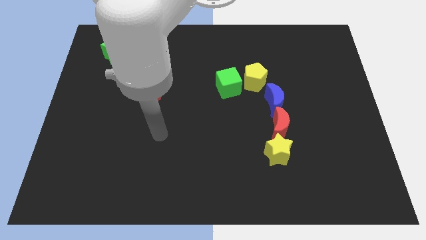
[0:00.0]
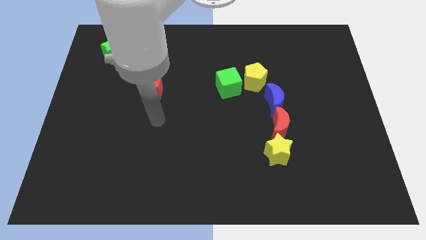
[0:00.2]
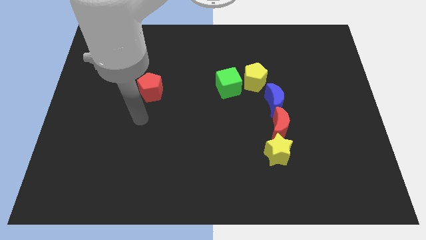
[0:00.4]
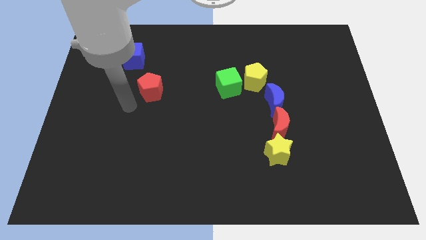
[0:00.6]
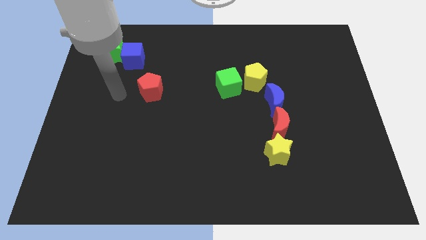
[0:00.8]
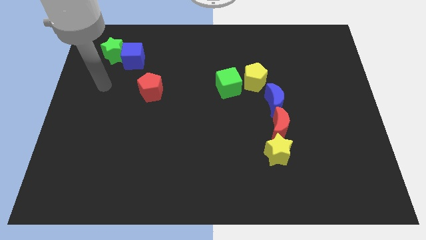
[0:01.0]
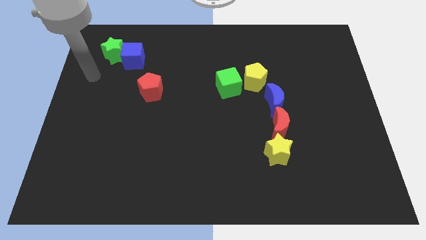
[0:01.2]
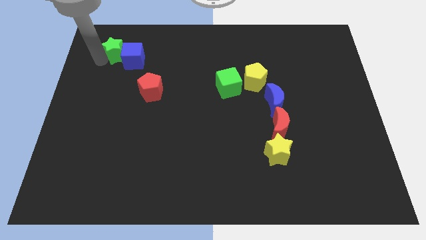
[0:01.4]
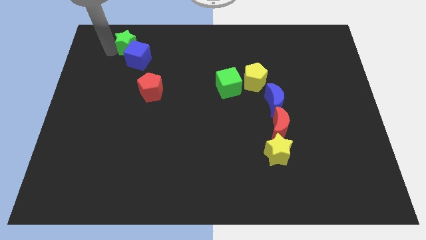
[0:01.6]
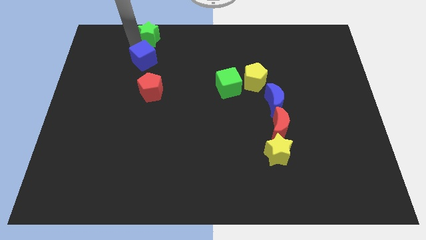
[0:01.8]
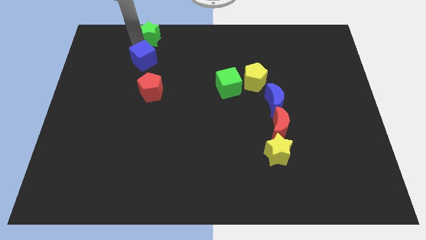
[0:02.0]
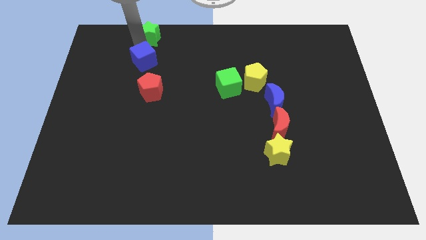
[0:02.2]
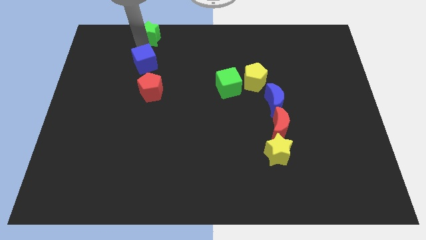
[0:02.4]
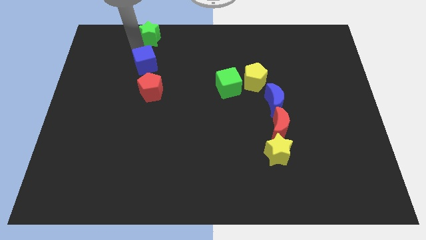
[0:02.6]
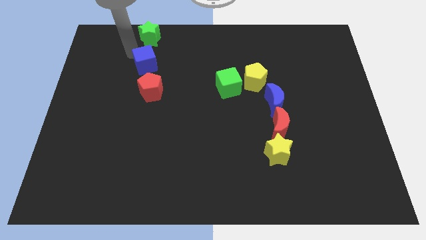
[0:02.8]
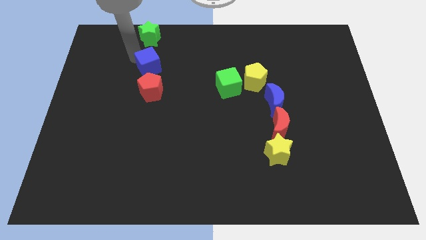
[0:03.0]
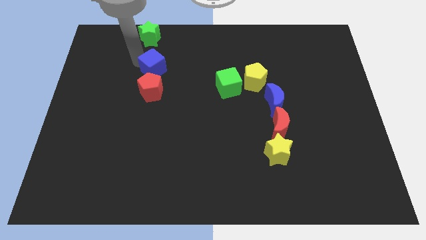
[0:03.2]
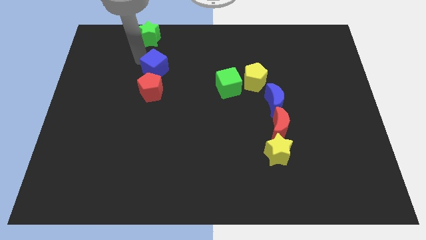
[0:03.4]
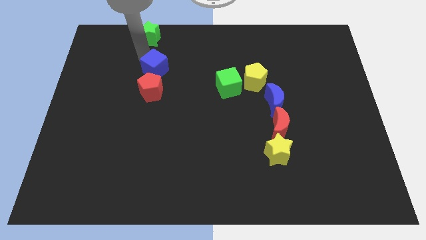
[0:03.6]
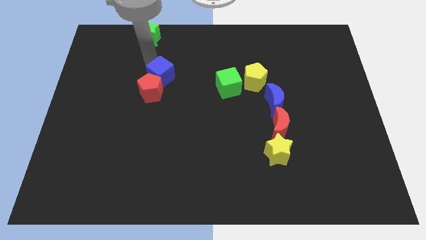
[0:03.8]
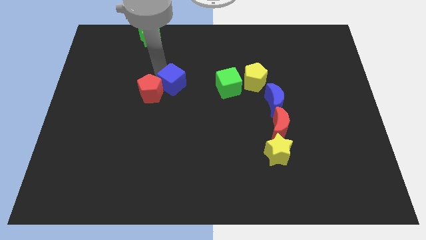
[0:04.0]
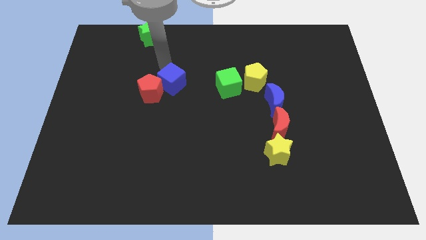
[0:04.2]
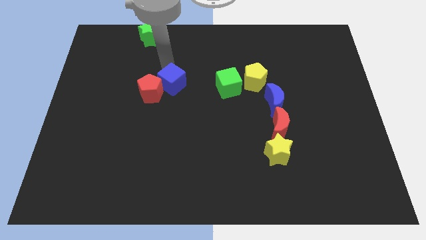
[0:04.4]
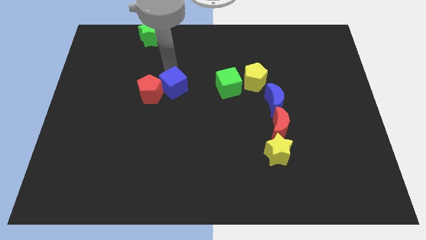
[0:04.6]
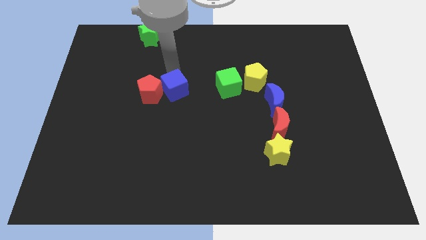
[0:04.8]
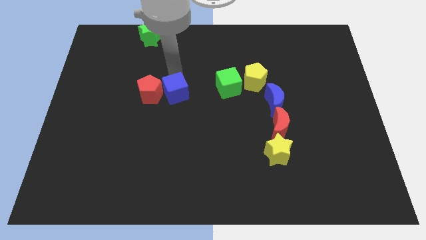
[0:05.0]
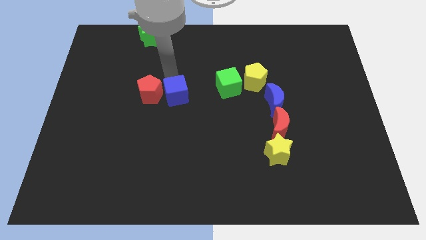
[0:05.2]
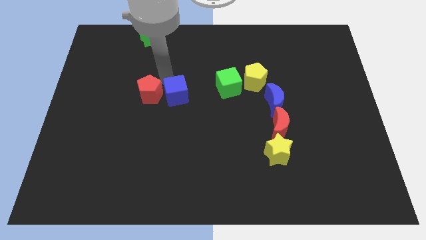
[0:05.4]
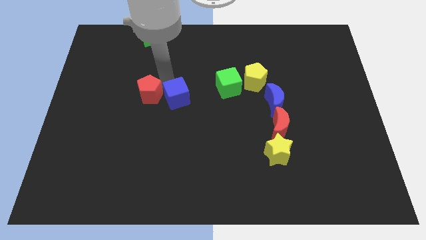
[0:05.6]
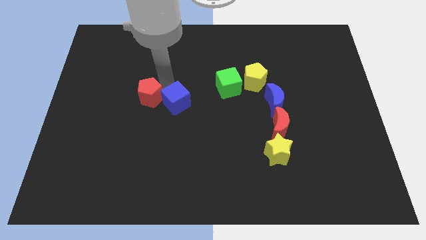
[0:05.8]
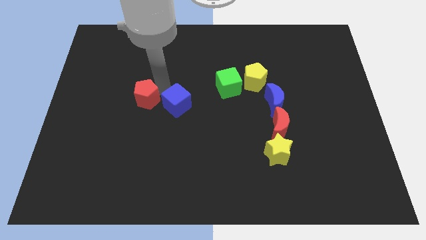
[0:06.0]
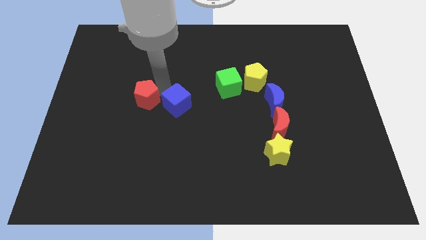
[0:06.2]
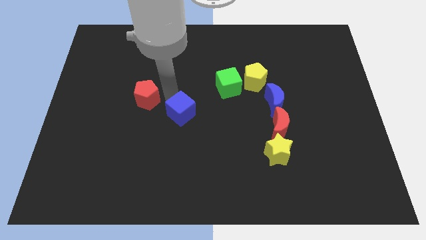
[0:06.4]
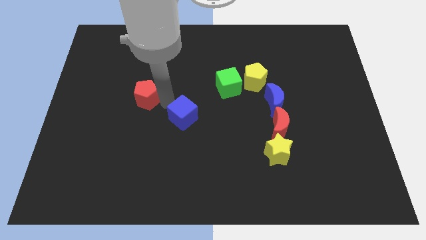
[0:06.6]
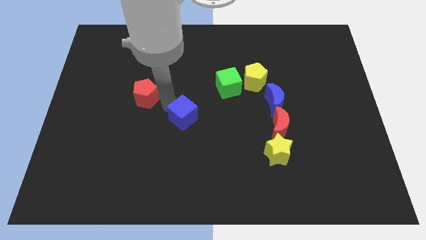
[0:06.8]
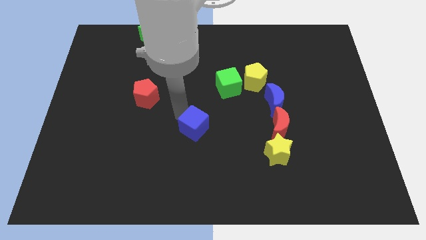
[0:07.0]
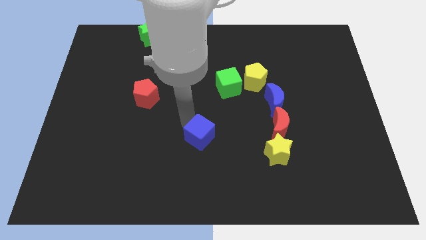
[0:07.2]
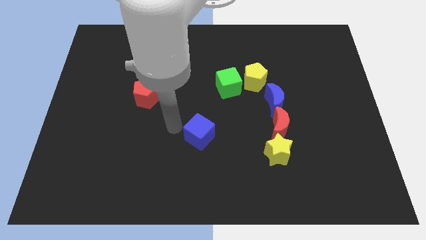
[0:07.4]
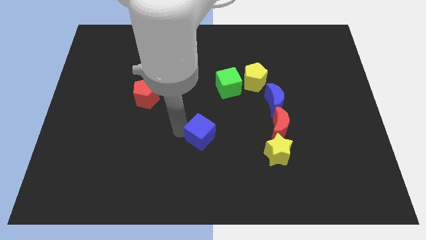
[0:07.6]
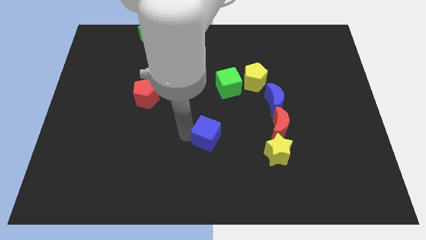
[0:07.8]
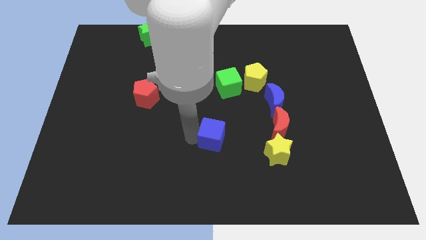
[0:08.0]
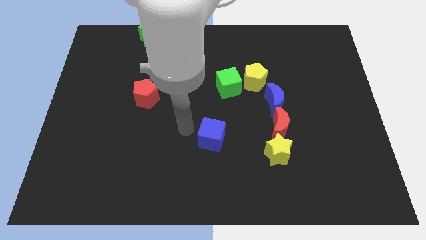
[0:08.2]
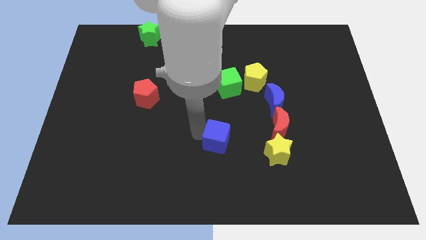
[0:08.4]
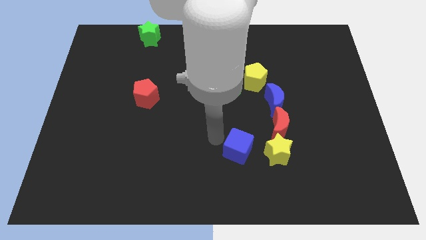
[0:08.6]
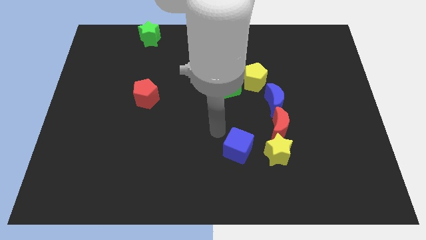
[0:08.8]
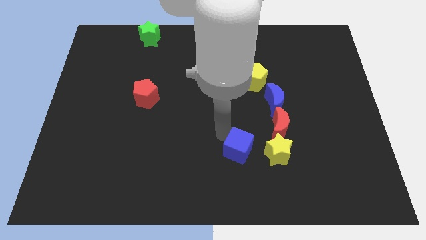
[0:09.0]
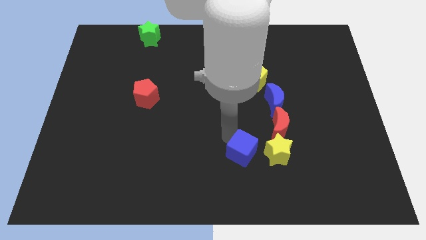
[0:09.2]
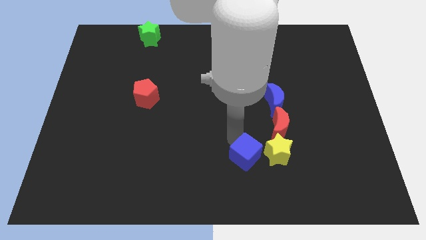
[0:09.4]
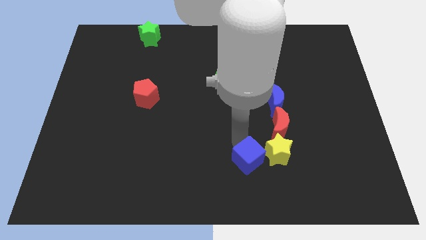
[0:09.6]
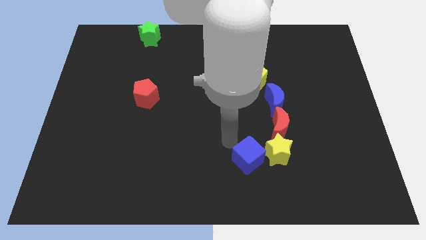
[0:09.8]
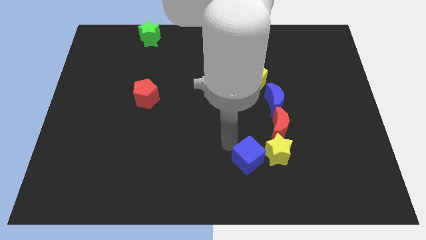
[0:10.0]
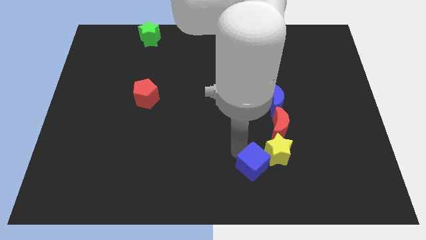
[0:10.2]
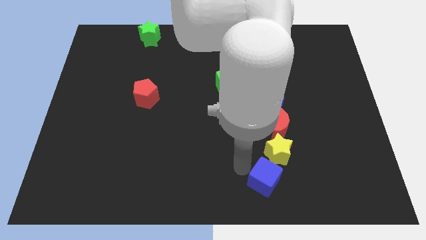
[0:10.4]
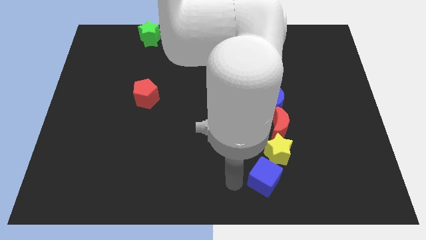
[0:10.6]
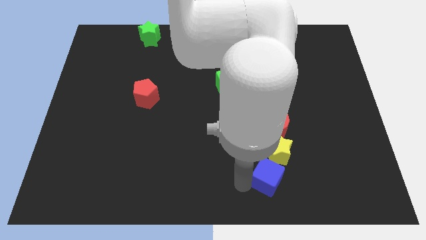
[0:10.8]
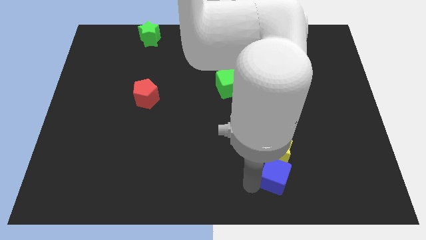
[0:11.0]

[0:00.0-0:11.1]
push the blue cube to the bottom right side of the yellow star

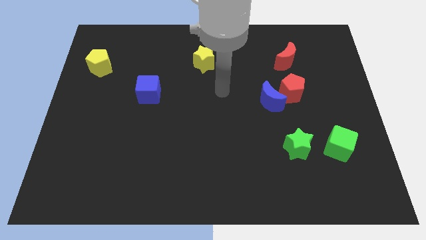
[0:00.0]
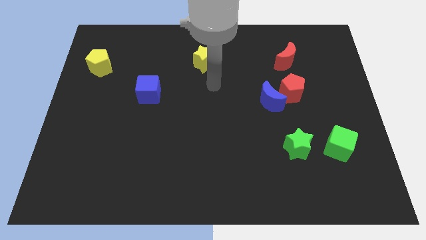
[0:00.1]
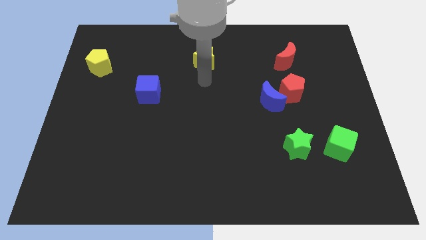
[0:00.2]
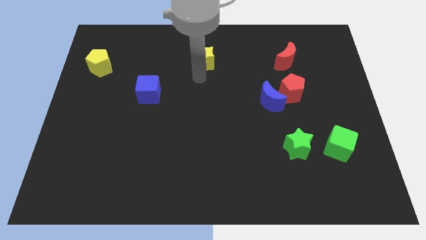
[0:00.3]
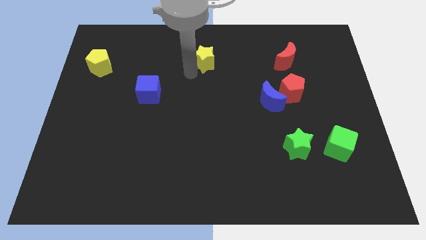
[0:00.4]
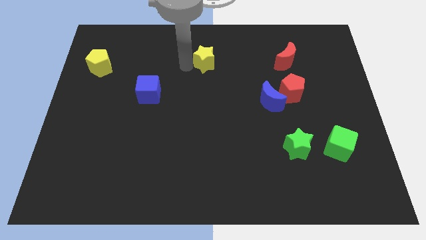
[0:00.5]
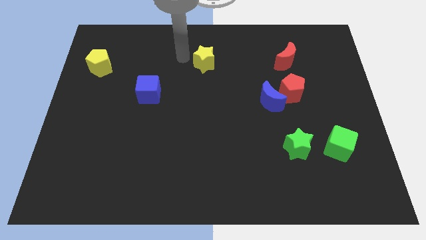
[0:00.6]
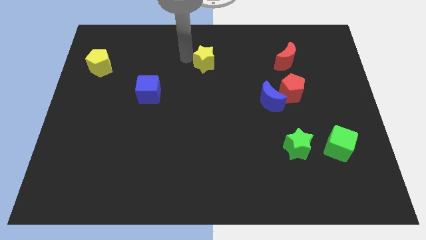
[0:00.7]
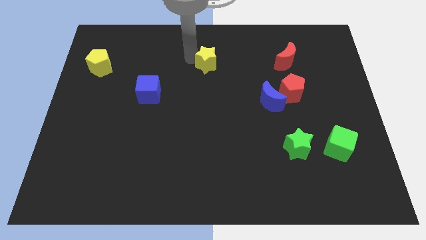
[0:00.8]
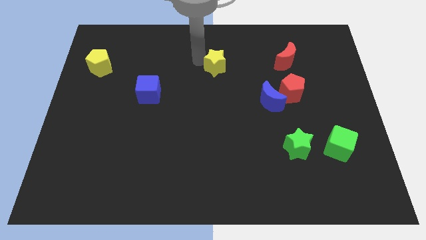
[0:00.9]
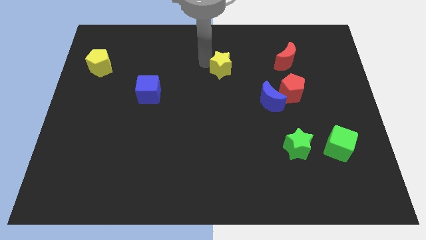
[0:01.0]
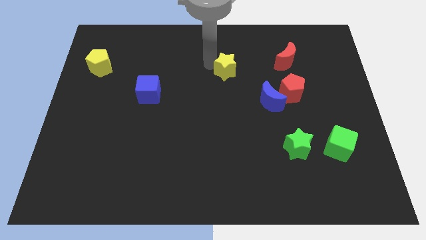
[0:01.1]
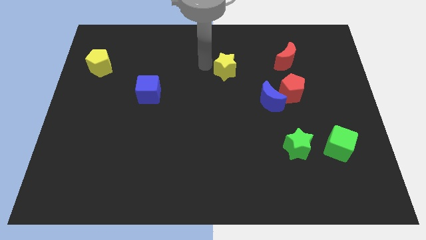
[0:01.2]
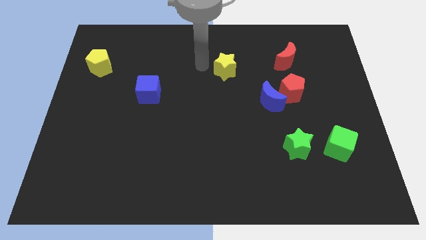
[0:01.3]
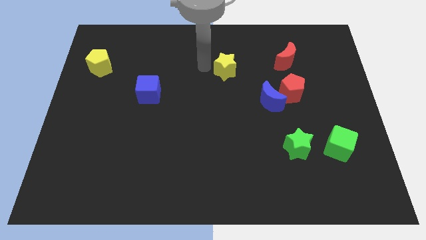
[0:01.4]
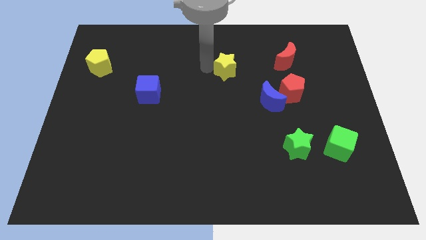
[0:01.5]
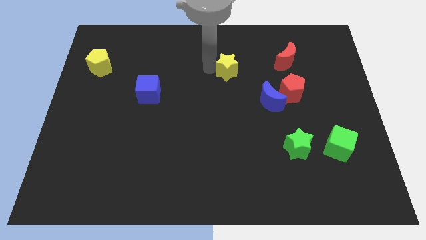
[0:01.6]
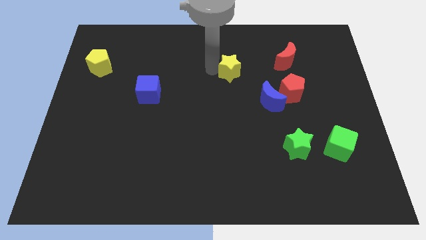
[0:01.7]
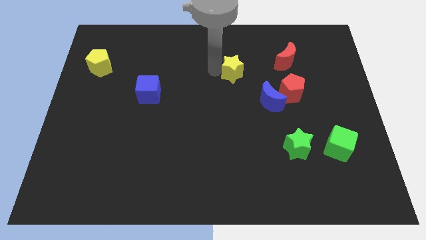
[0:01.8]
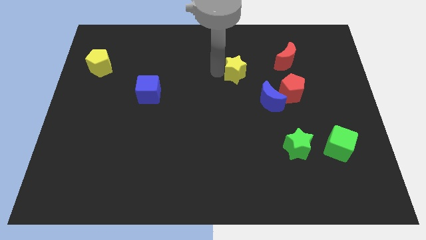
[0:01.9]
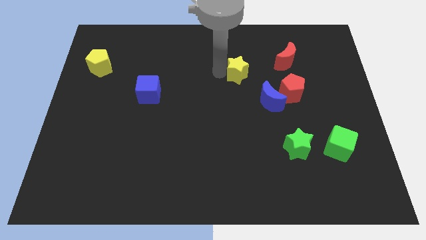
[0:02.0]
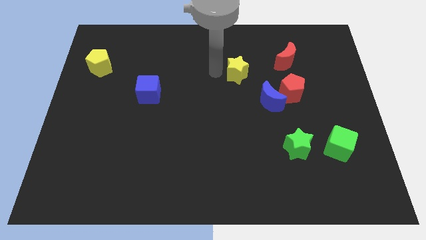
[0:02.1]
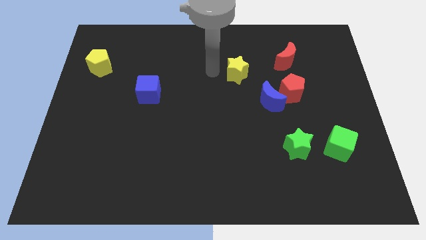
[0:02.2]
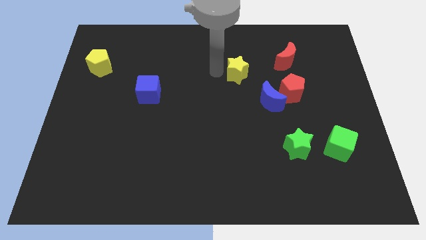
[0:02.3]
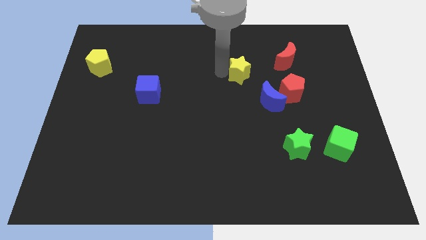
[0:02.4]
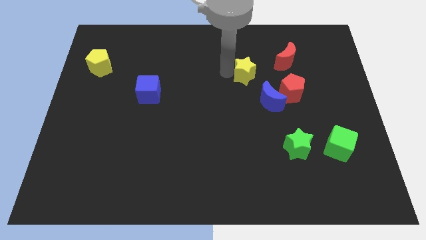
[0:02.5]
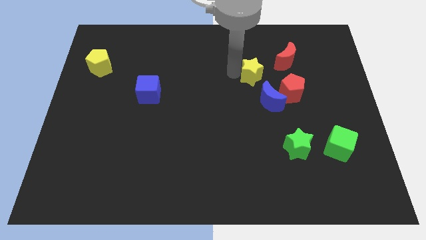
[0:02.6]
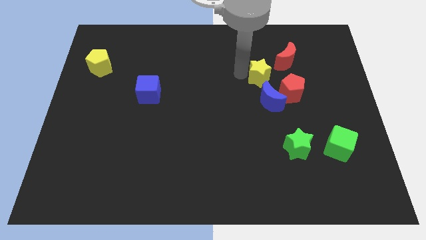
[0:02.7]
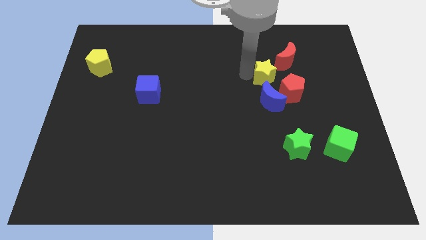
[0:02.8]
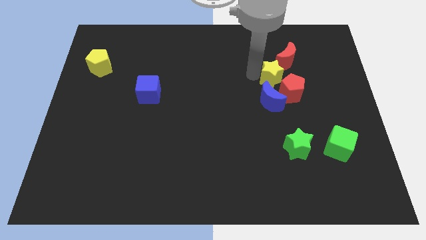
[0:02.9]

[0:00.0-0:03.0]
push the yellow star to the top right of the blue moon
